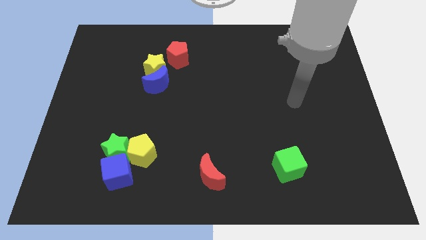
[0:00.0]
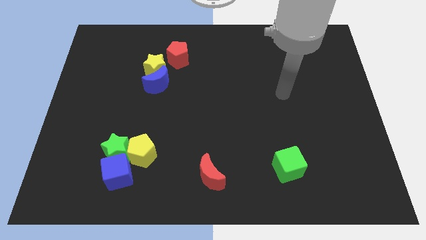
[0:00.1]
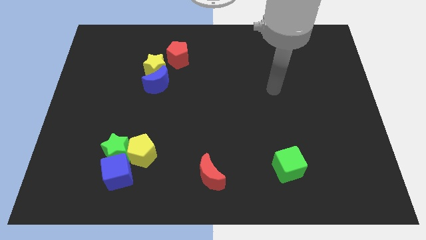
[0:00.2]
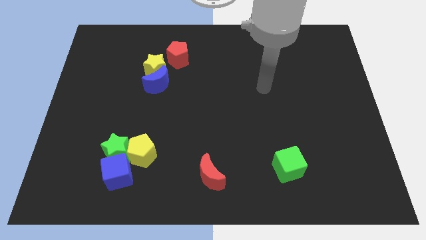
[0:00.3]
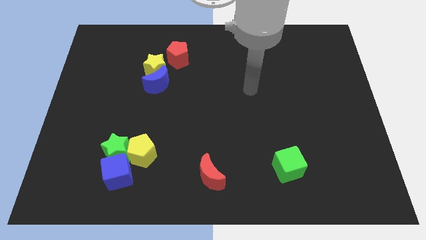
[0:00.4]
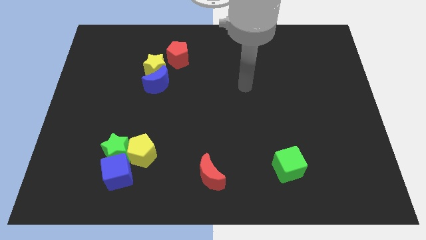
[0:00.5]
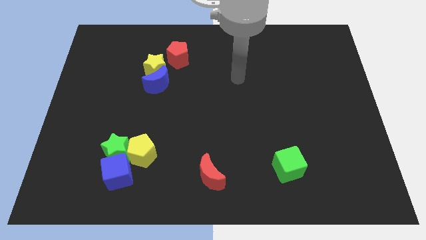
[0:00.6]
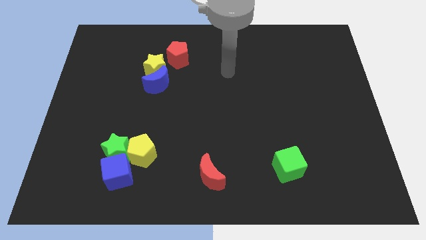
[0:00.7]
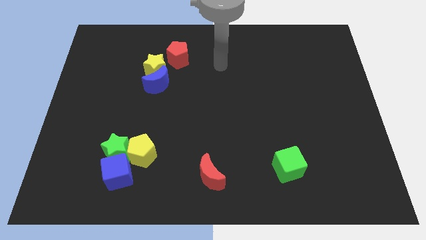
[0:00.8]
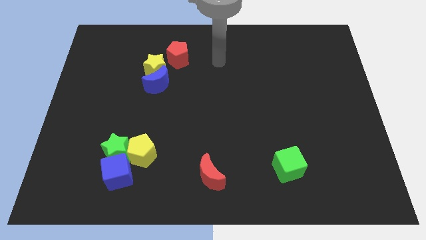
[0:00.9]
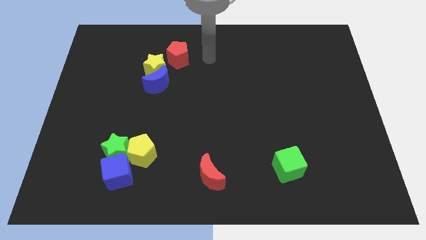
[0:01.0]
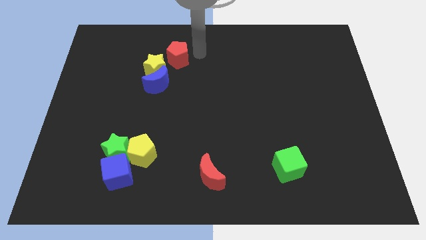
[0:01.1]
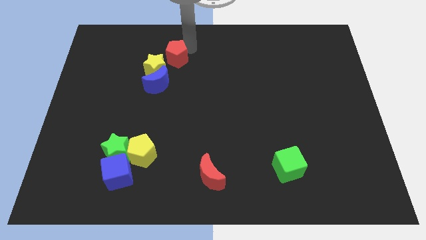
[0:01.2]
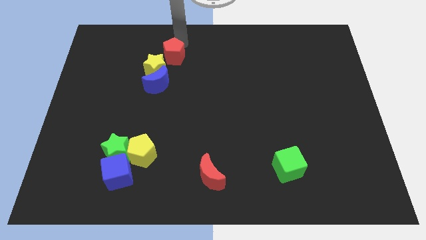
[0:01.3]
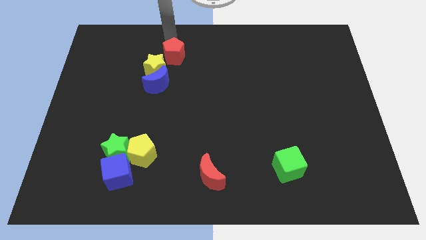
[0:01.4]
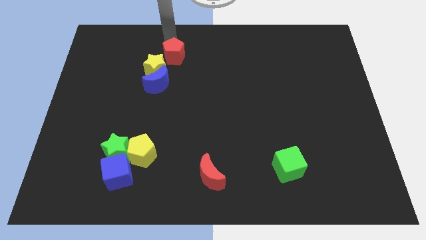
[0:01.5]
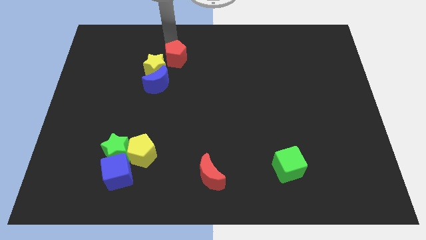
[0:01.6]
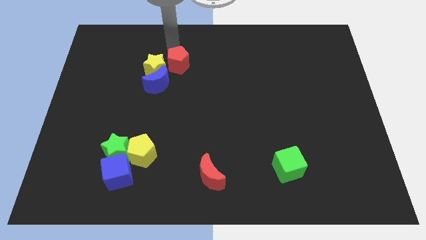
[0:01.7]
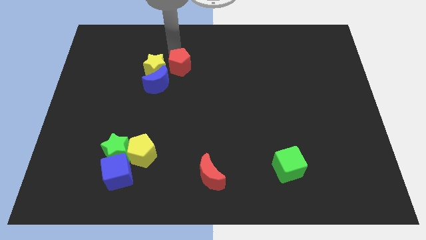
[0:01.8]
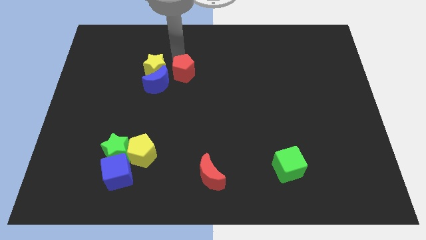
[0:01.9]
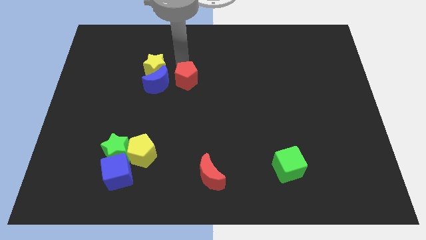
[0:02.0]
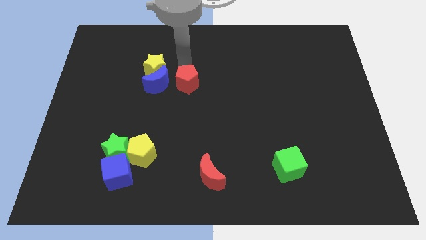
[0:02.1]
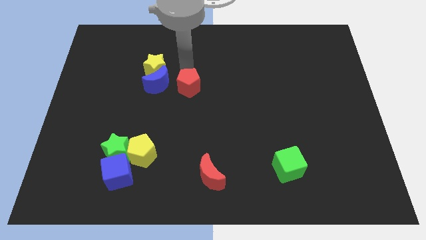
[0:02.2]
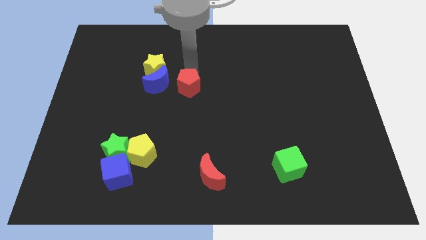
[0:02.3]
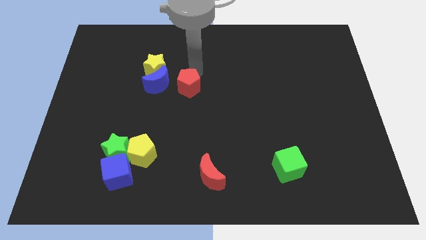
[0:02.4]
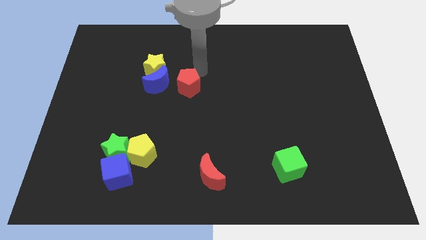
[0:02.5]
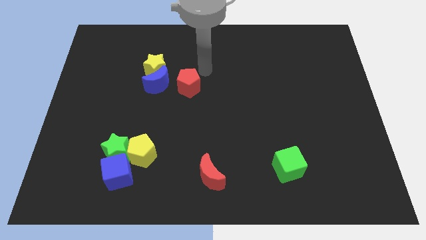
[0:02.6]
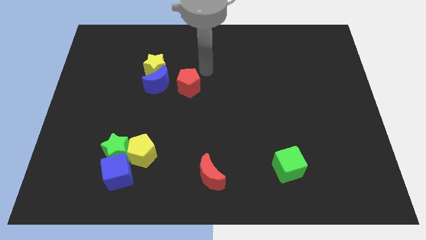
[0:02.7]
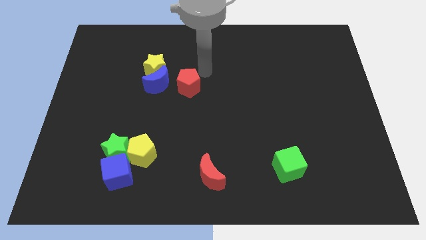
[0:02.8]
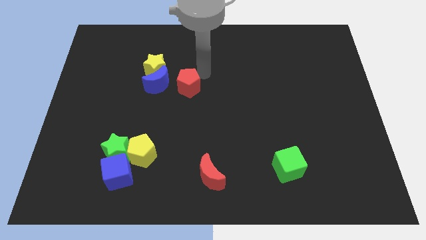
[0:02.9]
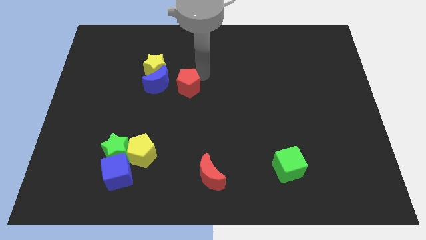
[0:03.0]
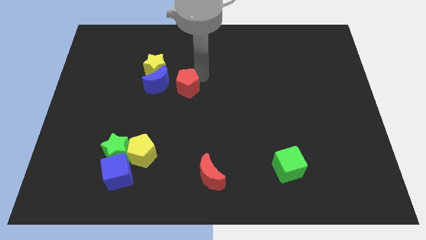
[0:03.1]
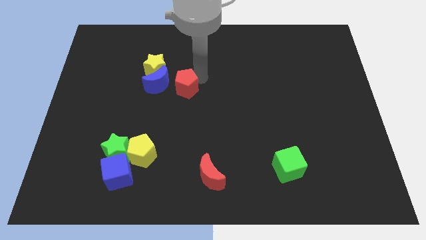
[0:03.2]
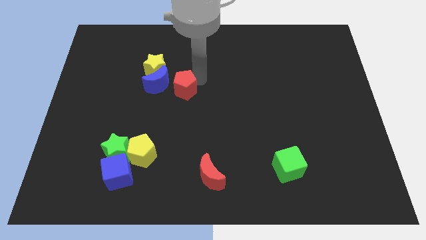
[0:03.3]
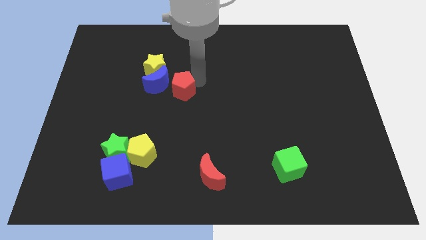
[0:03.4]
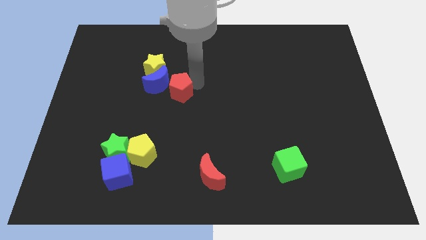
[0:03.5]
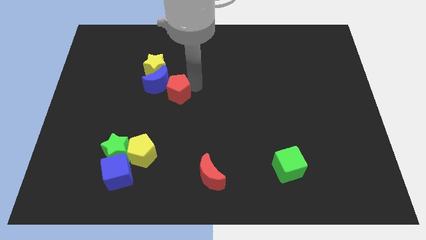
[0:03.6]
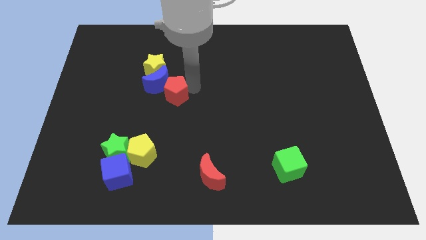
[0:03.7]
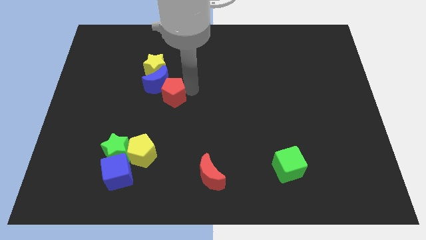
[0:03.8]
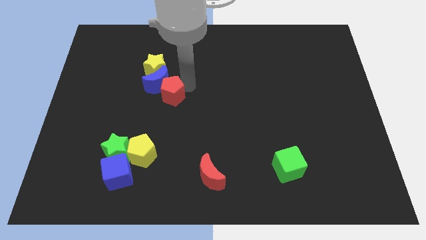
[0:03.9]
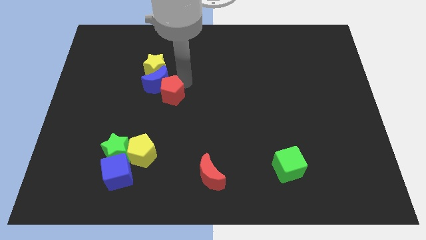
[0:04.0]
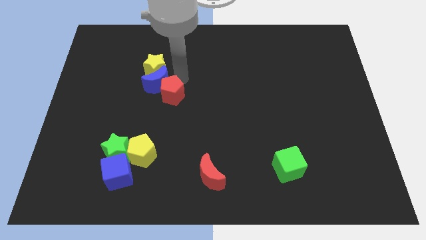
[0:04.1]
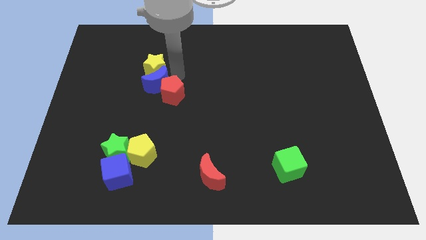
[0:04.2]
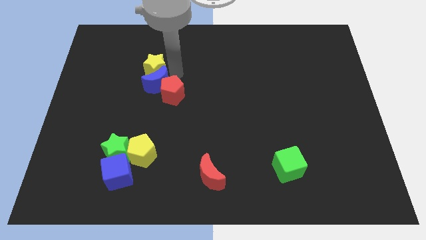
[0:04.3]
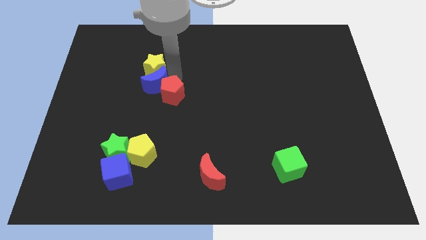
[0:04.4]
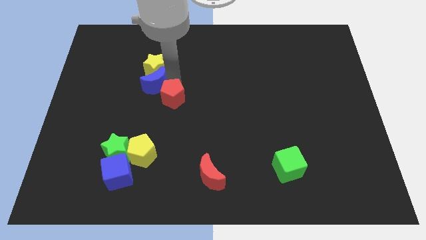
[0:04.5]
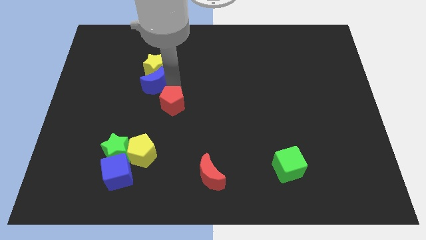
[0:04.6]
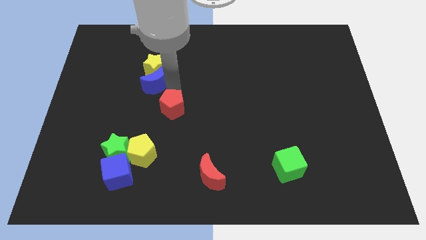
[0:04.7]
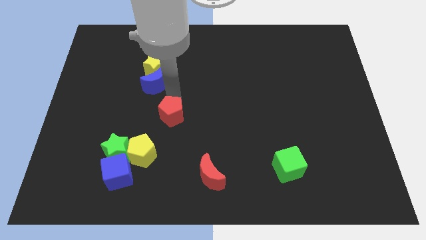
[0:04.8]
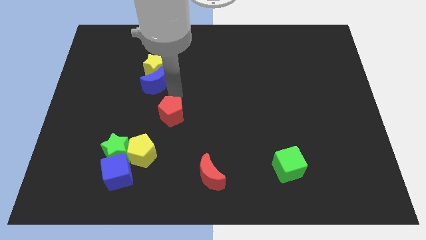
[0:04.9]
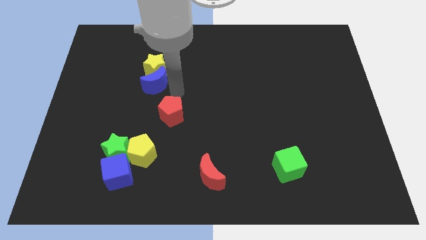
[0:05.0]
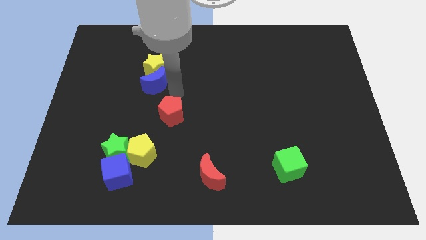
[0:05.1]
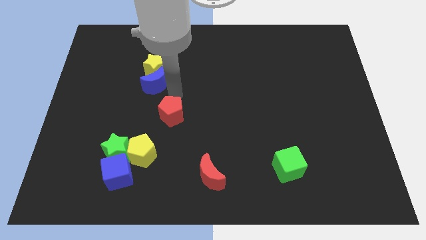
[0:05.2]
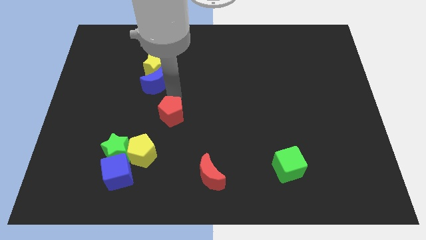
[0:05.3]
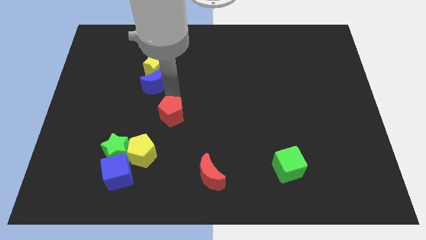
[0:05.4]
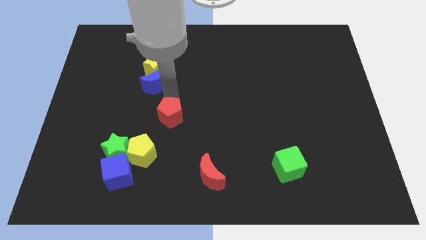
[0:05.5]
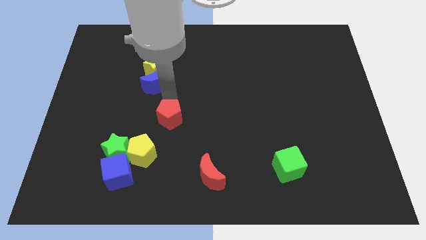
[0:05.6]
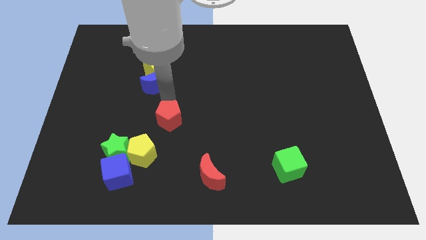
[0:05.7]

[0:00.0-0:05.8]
move the red pentagon downwards

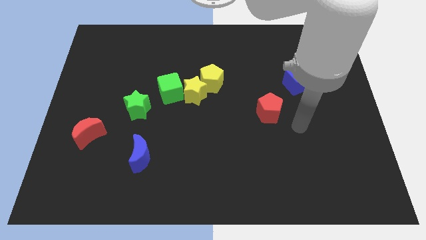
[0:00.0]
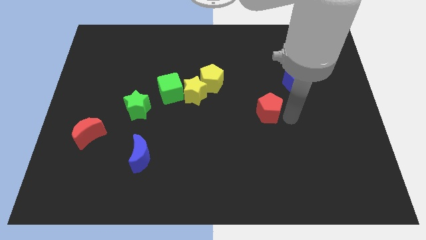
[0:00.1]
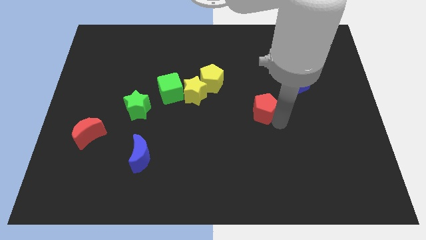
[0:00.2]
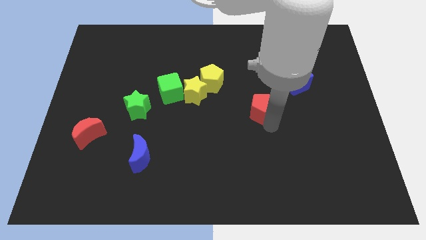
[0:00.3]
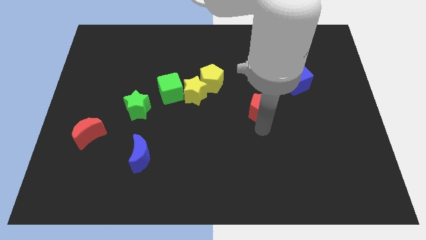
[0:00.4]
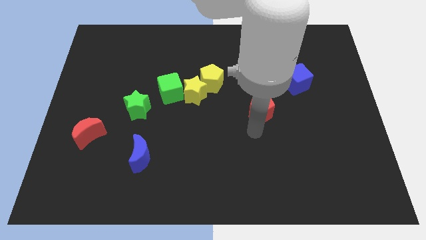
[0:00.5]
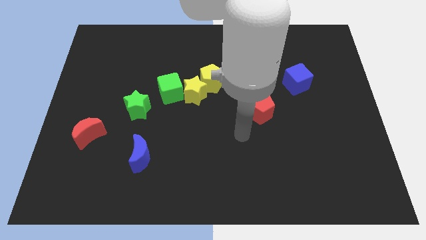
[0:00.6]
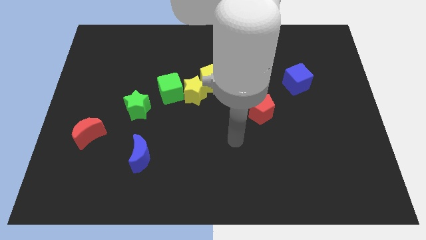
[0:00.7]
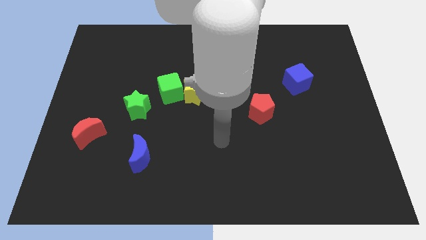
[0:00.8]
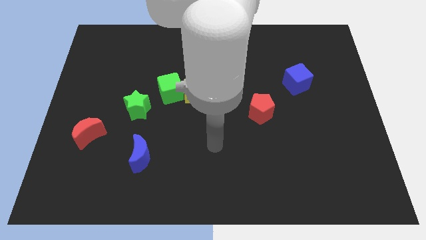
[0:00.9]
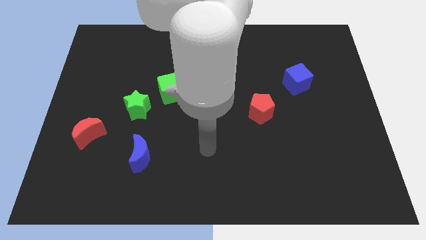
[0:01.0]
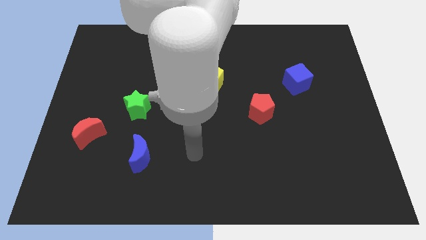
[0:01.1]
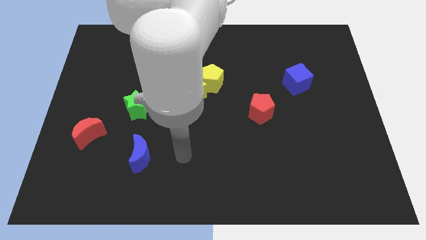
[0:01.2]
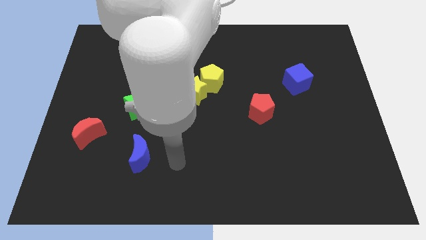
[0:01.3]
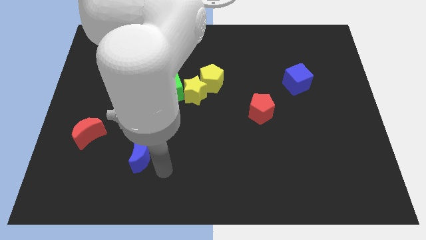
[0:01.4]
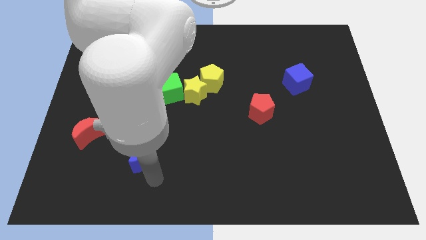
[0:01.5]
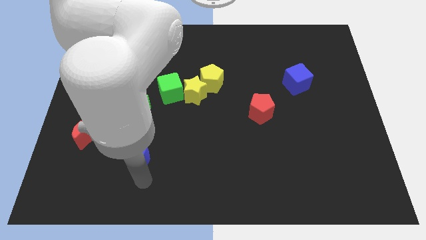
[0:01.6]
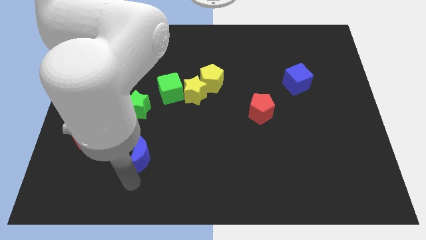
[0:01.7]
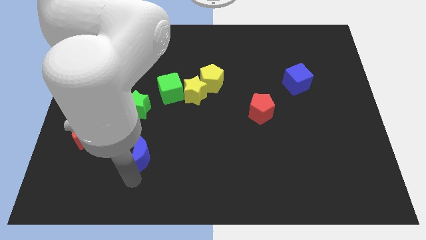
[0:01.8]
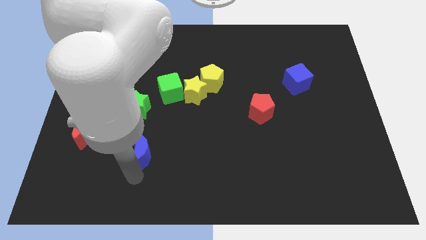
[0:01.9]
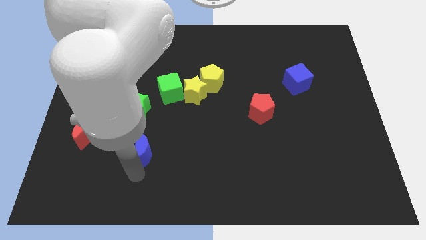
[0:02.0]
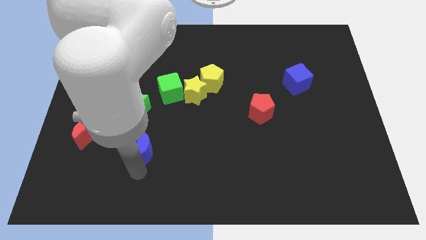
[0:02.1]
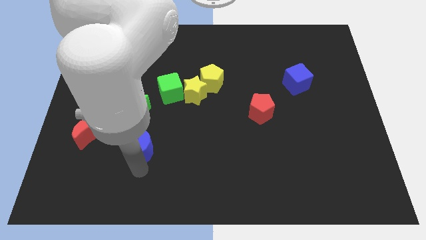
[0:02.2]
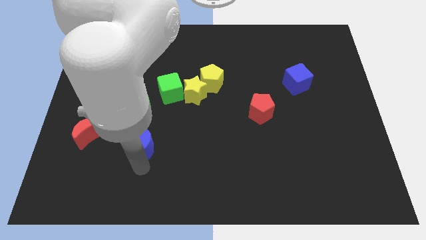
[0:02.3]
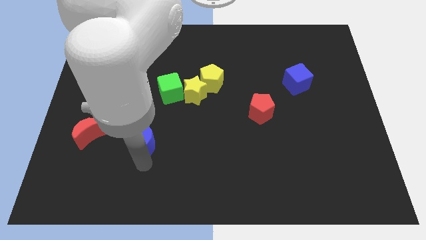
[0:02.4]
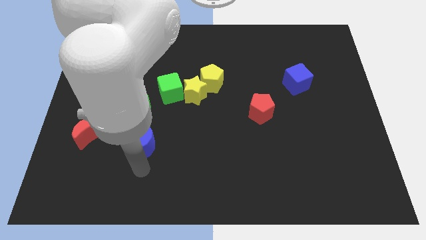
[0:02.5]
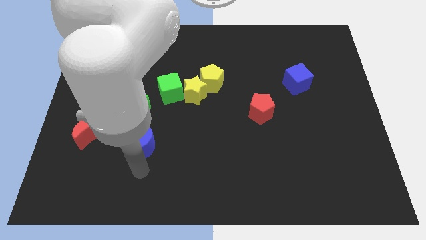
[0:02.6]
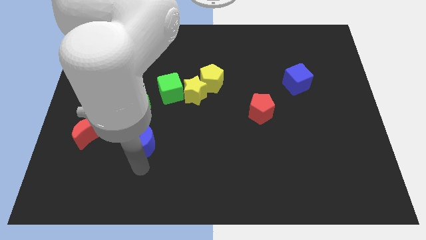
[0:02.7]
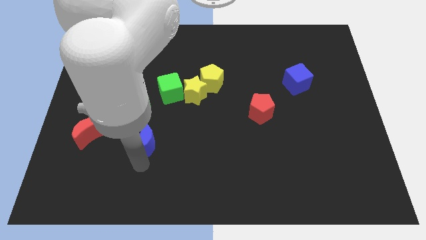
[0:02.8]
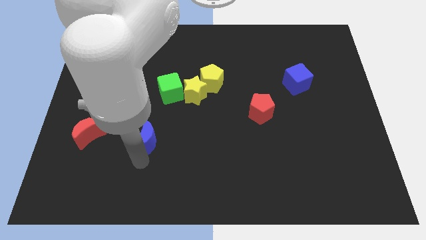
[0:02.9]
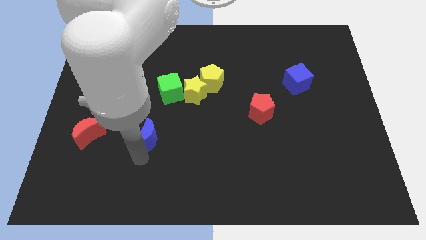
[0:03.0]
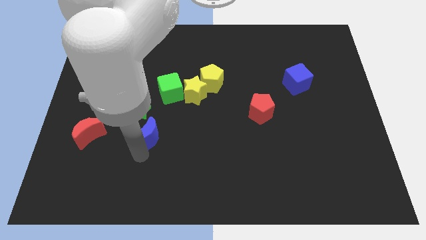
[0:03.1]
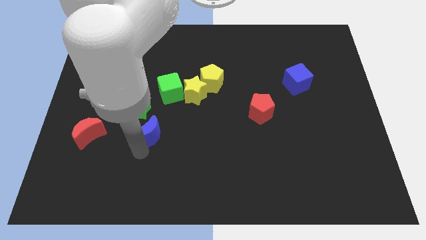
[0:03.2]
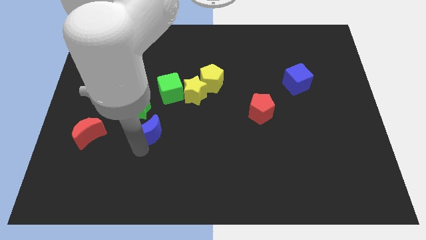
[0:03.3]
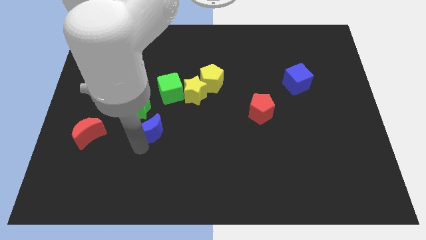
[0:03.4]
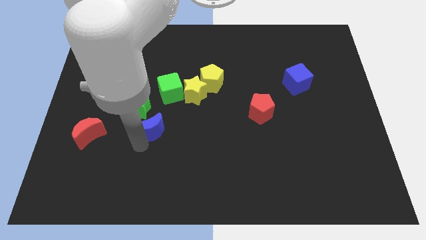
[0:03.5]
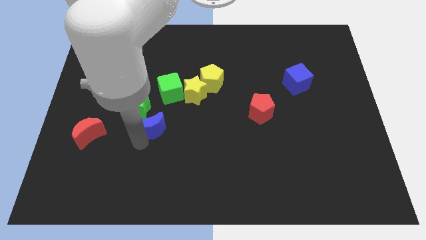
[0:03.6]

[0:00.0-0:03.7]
slide the blue moon somewhat up
